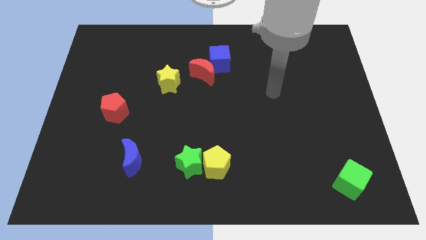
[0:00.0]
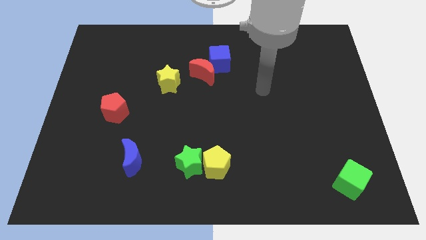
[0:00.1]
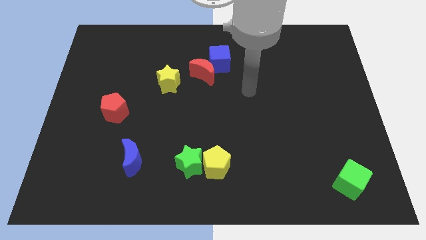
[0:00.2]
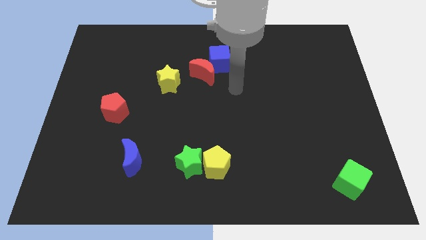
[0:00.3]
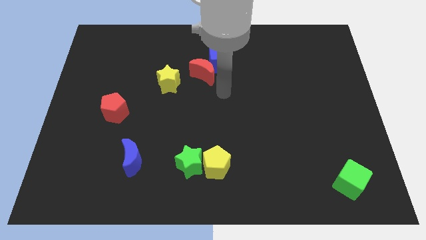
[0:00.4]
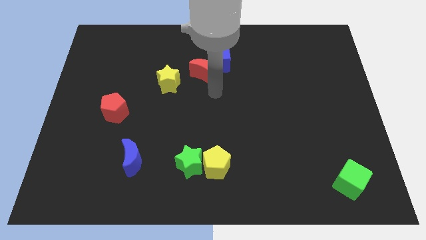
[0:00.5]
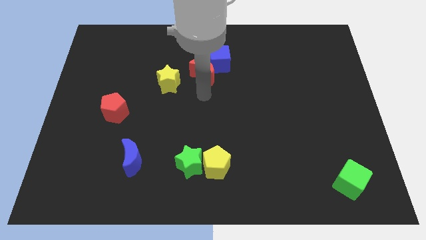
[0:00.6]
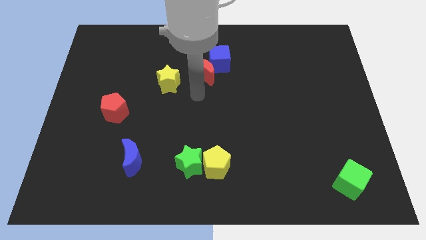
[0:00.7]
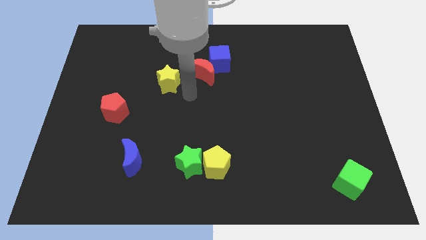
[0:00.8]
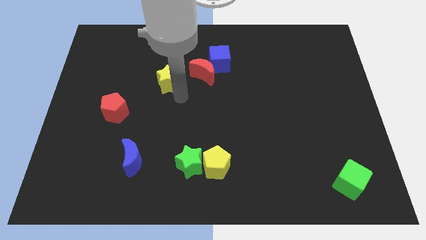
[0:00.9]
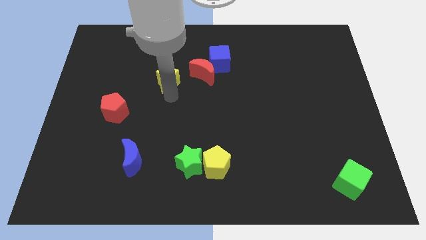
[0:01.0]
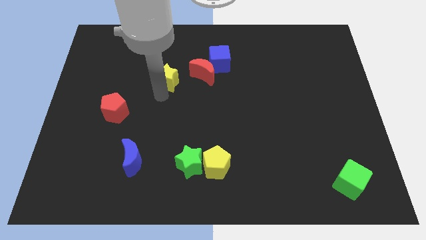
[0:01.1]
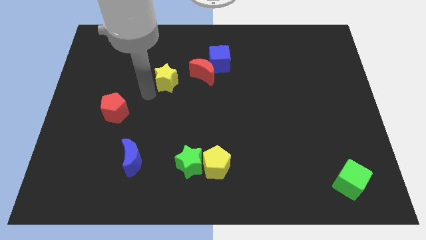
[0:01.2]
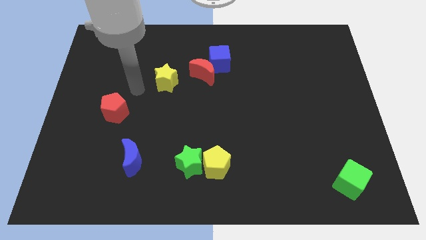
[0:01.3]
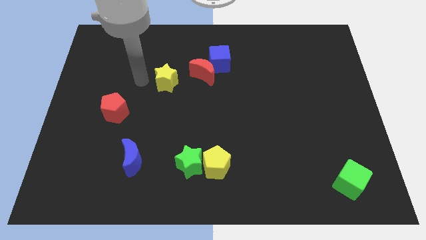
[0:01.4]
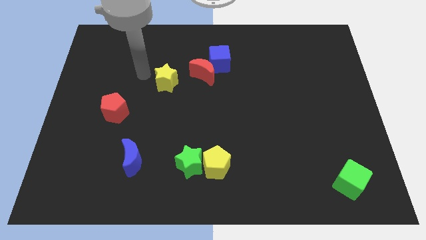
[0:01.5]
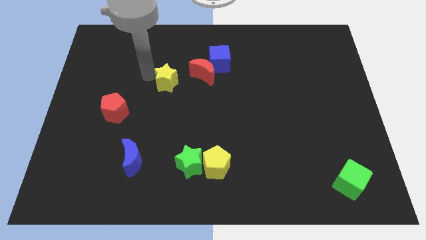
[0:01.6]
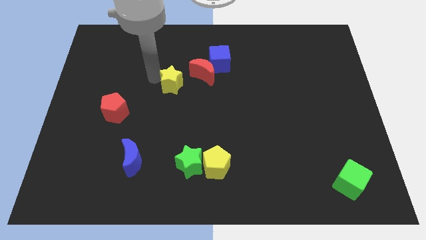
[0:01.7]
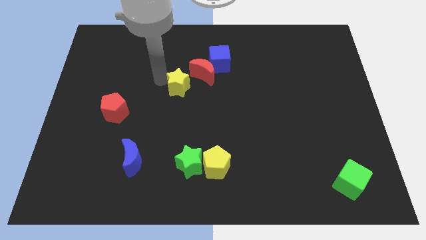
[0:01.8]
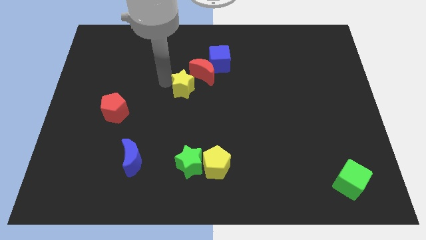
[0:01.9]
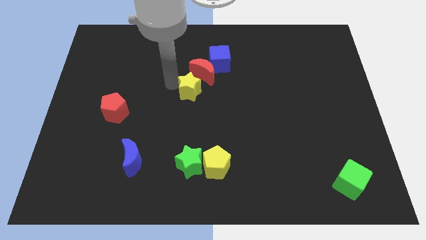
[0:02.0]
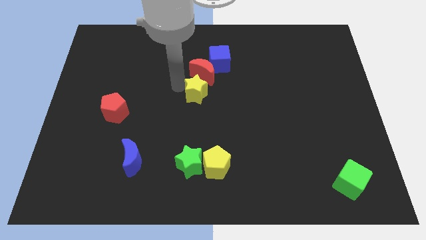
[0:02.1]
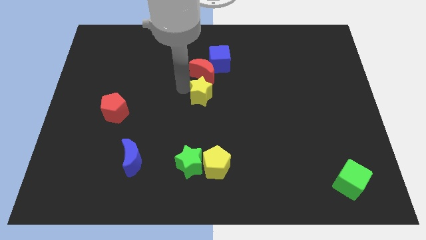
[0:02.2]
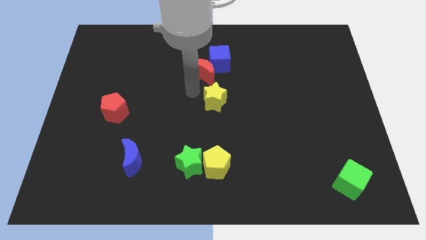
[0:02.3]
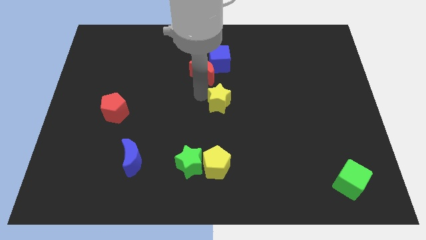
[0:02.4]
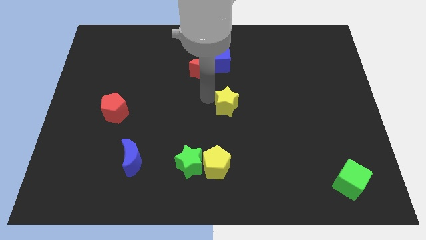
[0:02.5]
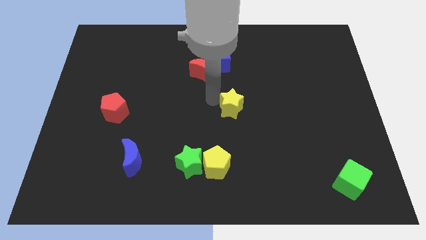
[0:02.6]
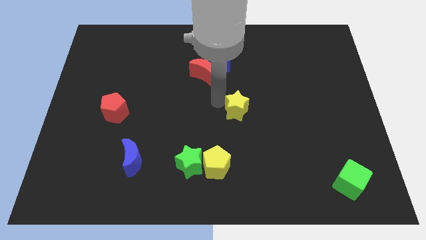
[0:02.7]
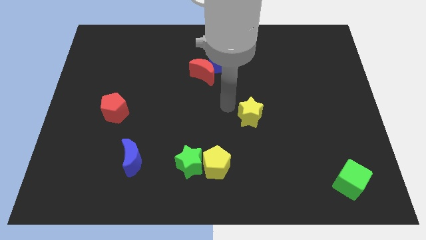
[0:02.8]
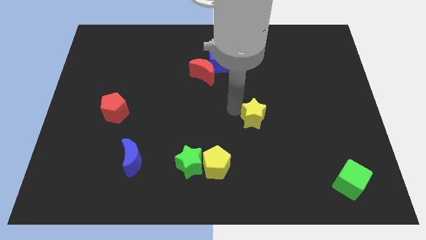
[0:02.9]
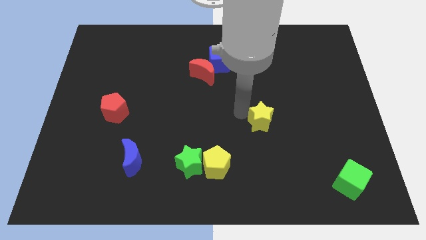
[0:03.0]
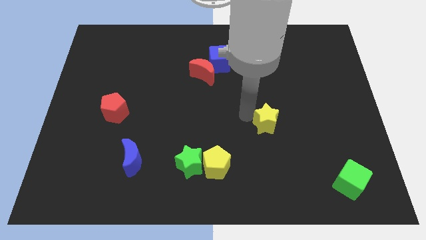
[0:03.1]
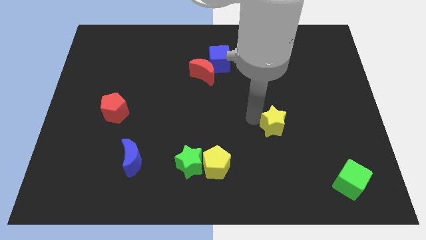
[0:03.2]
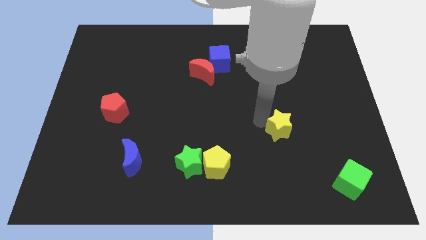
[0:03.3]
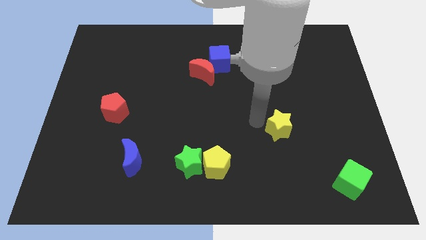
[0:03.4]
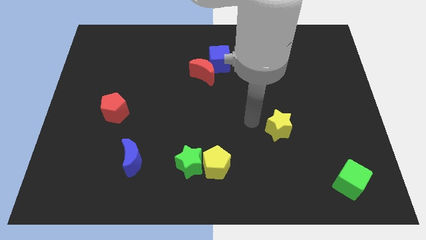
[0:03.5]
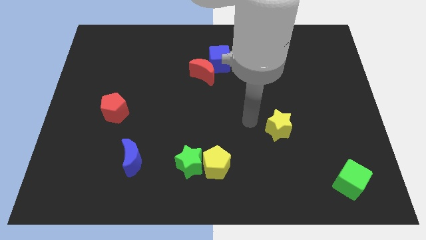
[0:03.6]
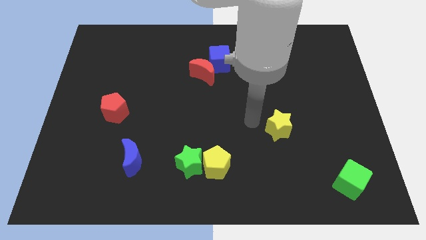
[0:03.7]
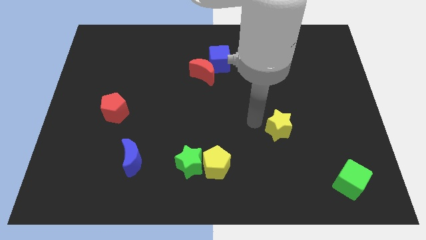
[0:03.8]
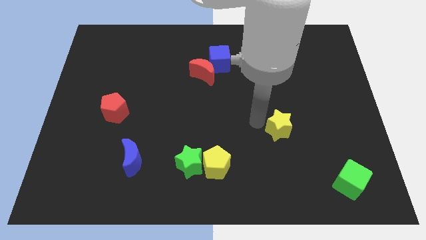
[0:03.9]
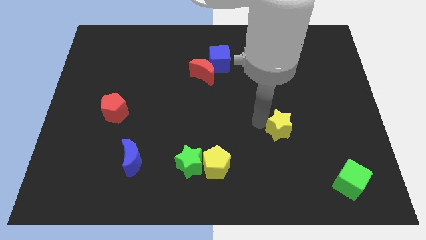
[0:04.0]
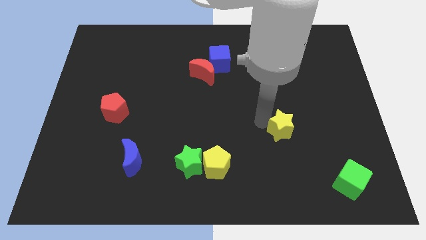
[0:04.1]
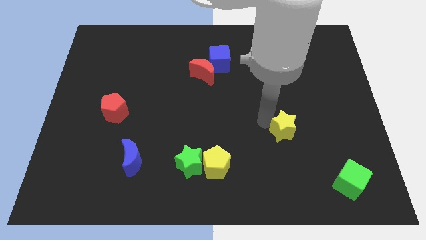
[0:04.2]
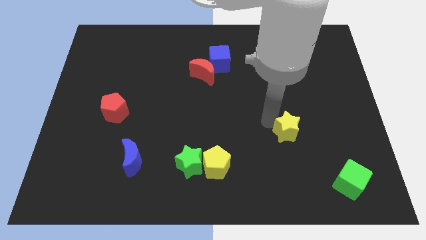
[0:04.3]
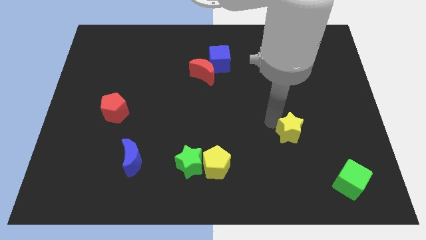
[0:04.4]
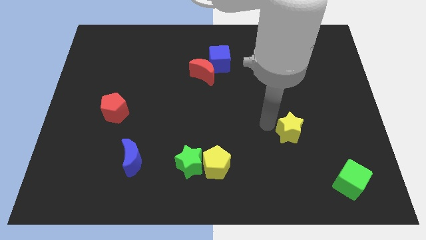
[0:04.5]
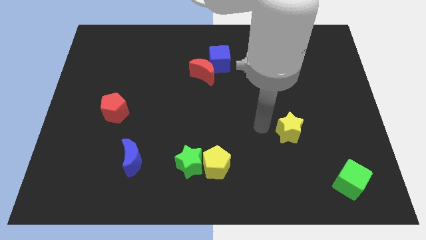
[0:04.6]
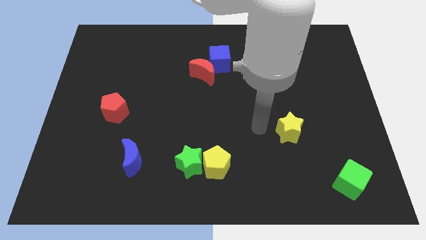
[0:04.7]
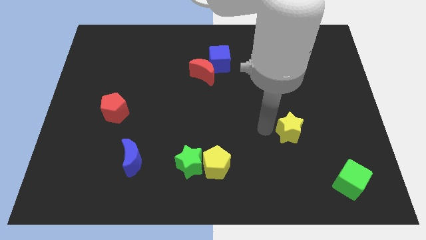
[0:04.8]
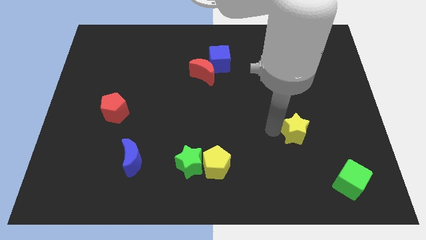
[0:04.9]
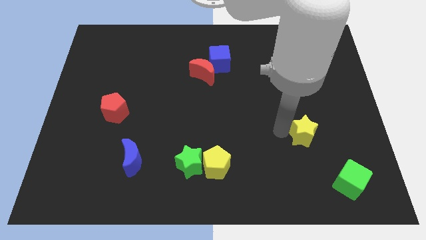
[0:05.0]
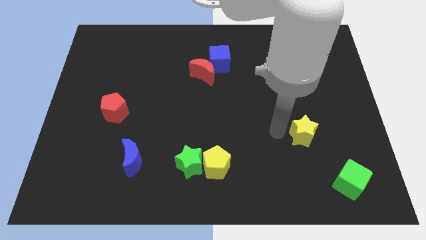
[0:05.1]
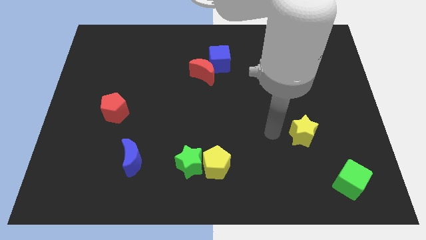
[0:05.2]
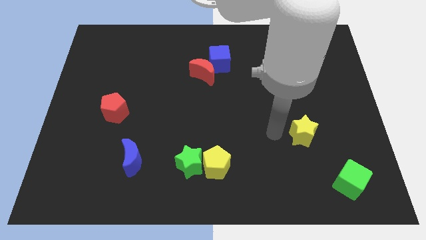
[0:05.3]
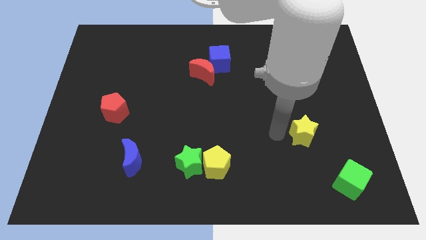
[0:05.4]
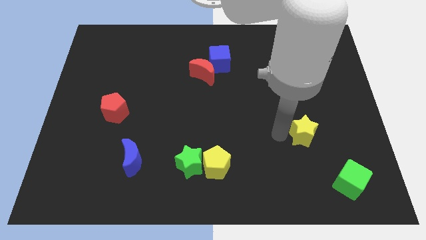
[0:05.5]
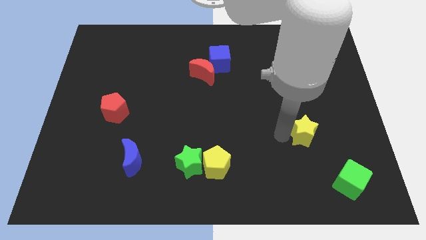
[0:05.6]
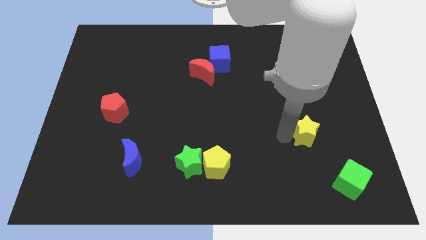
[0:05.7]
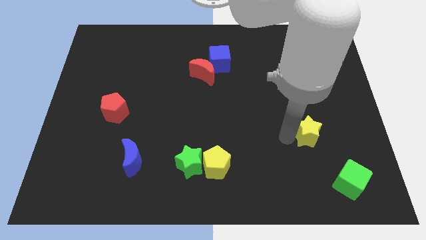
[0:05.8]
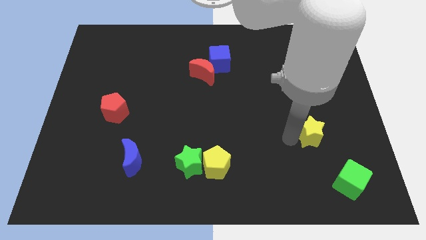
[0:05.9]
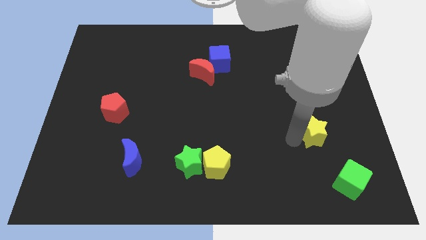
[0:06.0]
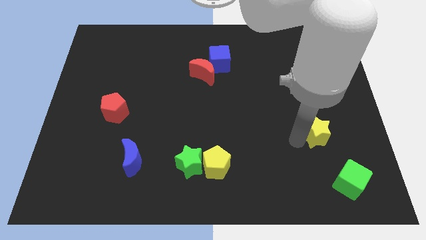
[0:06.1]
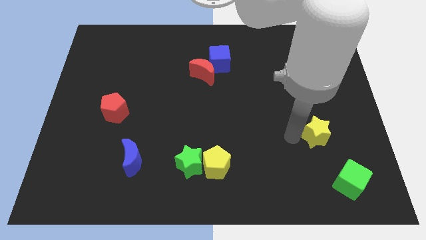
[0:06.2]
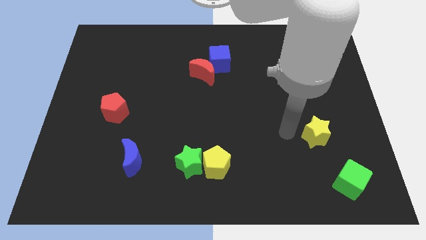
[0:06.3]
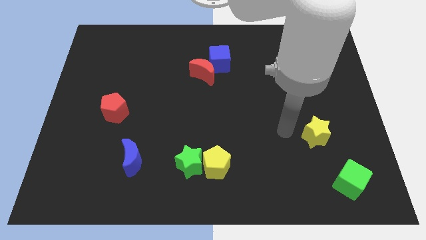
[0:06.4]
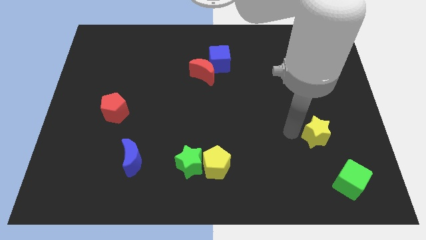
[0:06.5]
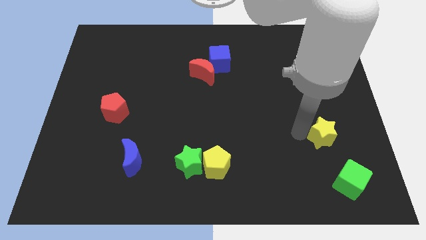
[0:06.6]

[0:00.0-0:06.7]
slide the yellow star to the top of the green cube

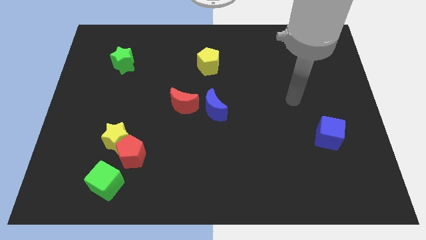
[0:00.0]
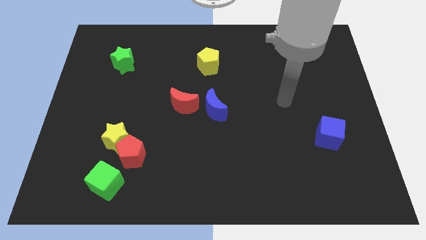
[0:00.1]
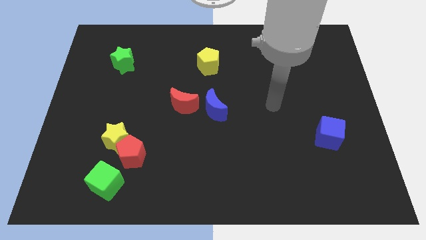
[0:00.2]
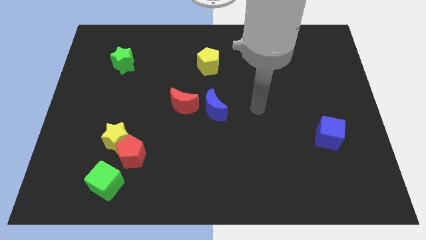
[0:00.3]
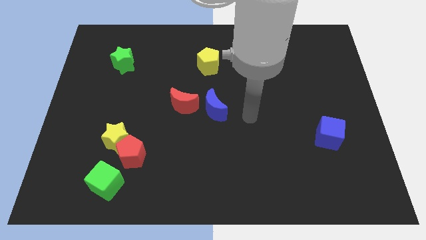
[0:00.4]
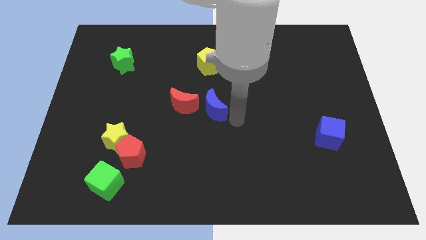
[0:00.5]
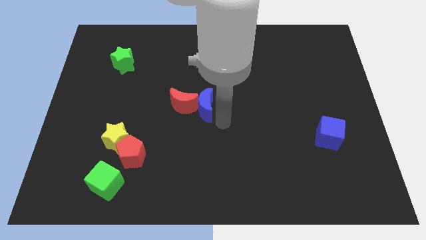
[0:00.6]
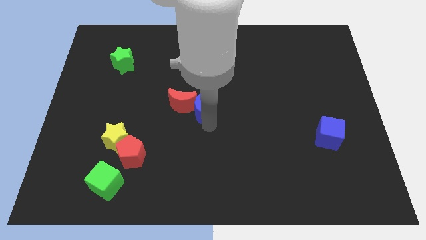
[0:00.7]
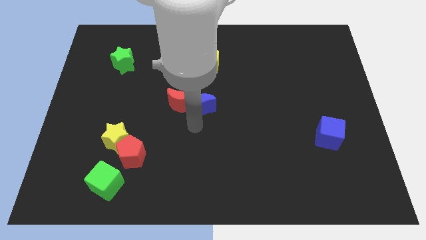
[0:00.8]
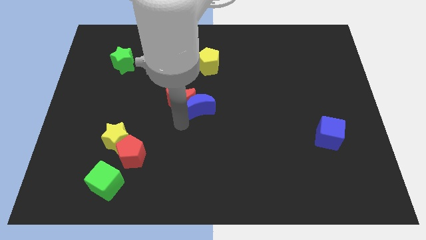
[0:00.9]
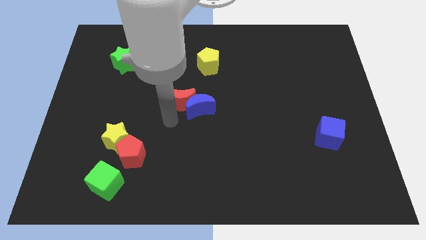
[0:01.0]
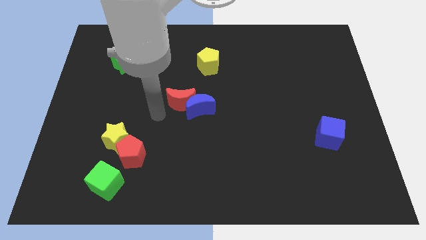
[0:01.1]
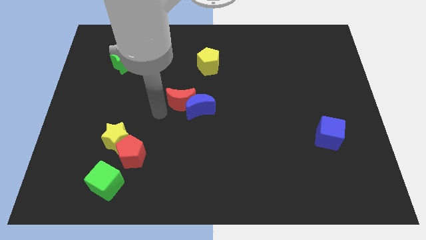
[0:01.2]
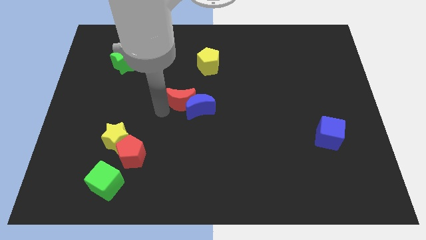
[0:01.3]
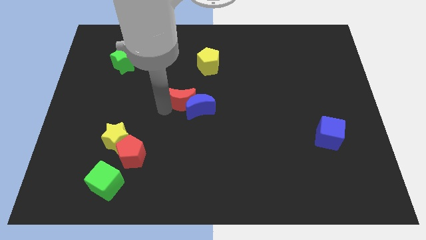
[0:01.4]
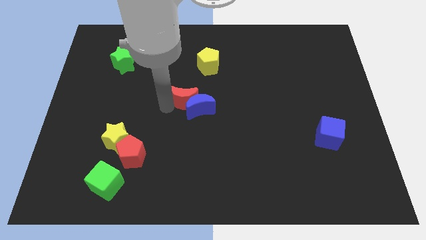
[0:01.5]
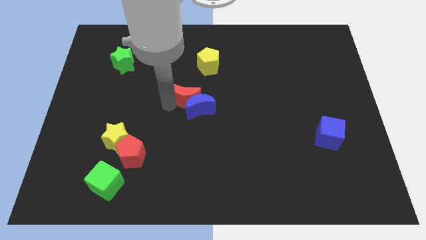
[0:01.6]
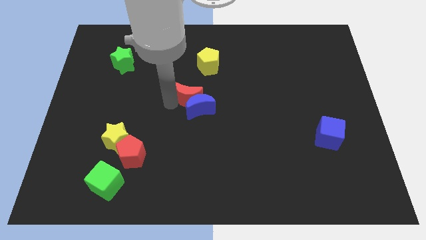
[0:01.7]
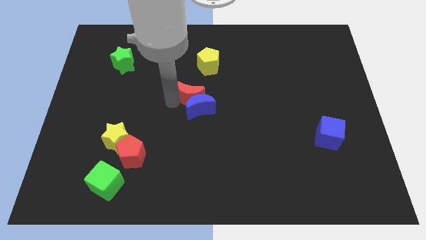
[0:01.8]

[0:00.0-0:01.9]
slide the red moon diagonally up and to the right of the blue moon
